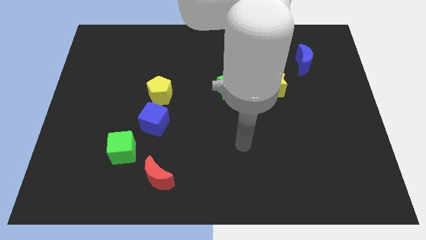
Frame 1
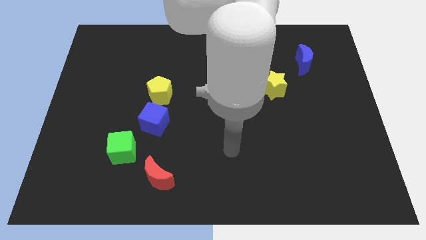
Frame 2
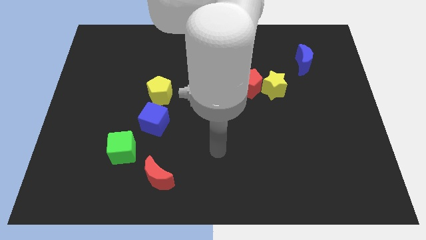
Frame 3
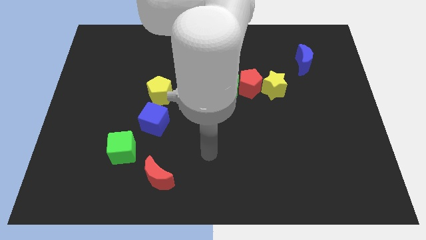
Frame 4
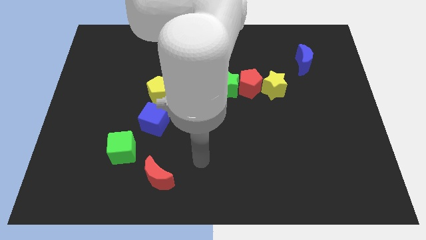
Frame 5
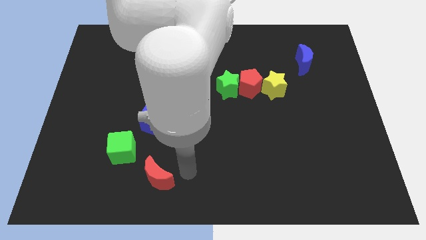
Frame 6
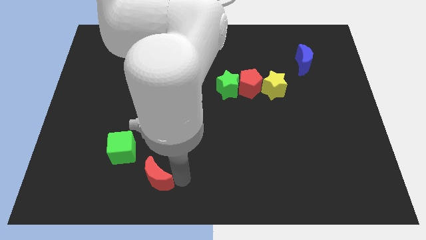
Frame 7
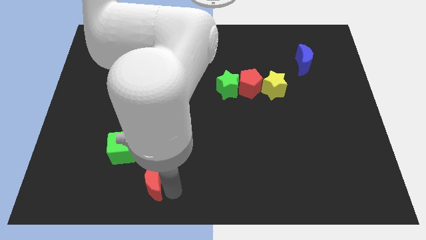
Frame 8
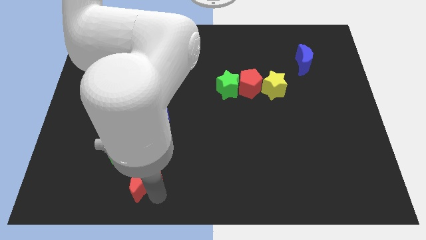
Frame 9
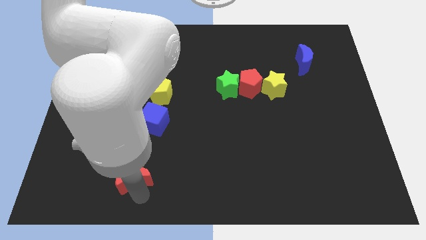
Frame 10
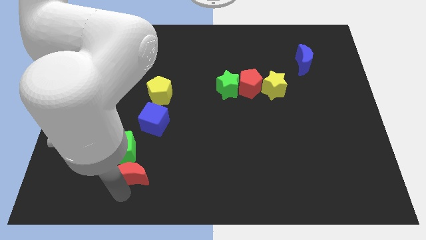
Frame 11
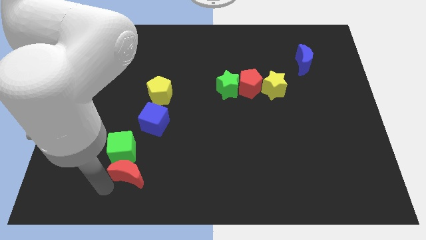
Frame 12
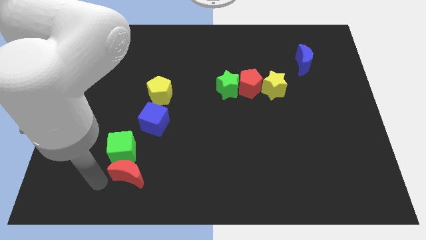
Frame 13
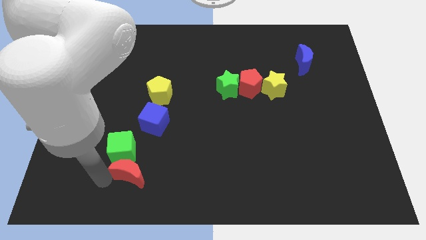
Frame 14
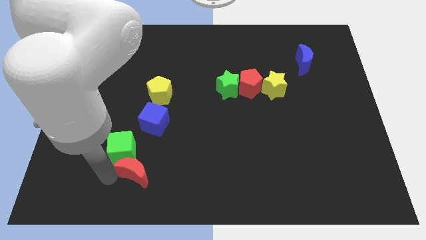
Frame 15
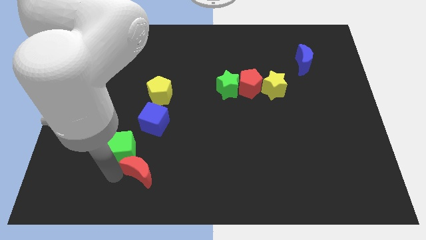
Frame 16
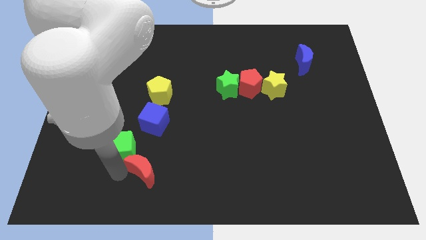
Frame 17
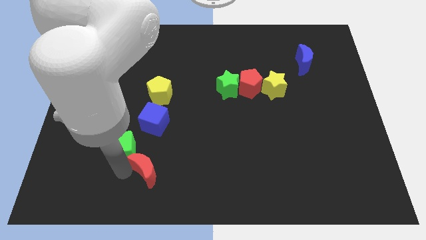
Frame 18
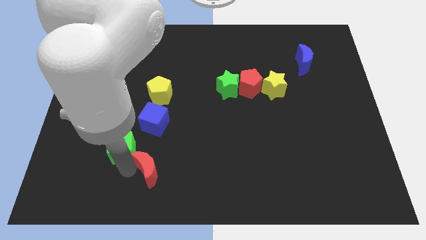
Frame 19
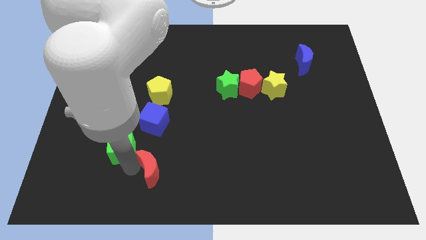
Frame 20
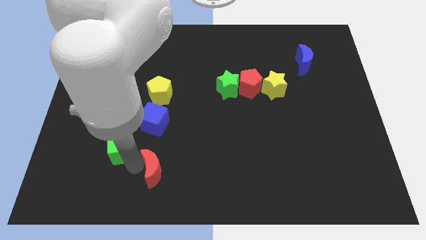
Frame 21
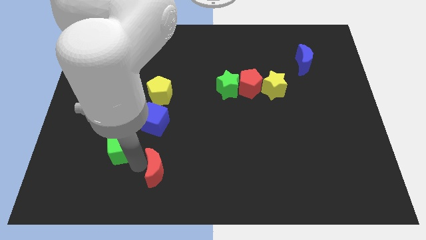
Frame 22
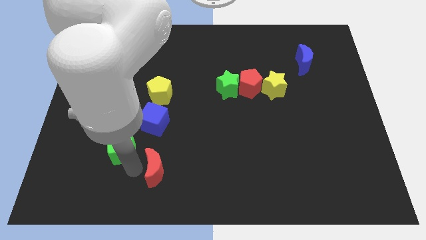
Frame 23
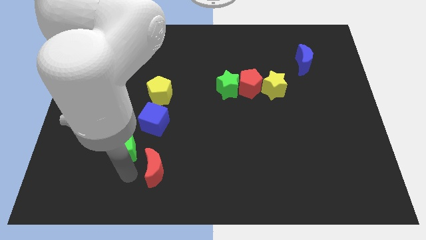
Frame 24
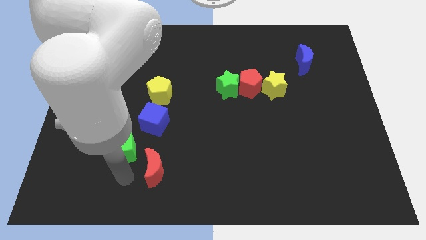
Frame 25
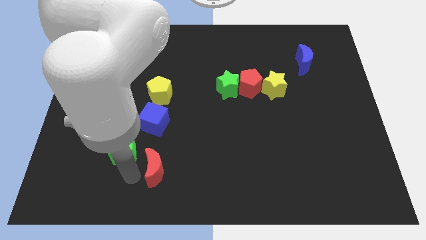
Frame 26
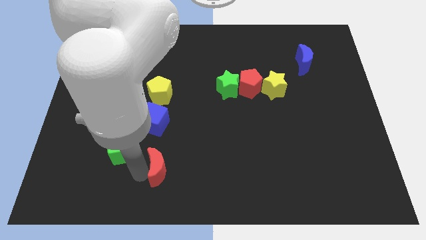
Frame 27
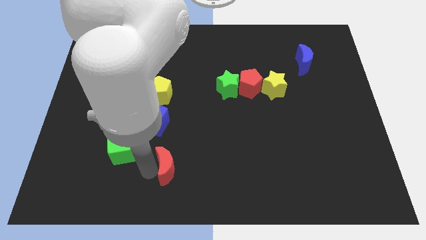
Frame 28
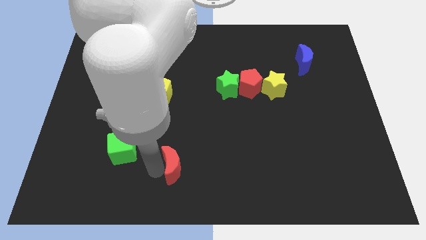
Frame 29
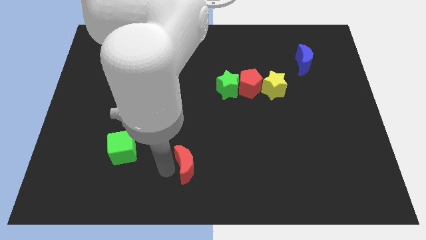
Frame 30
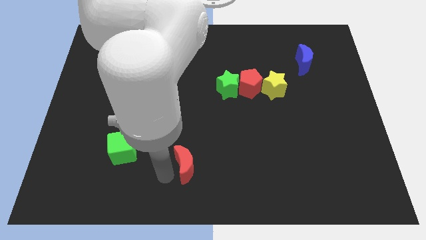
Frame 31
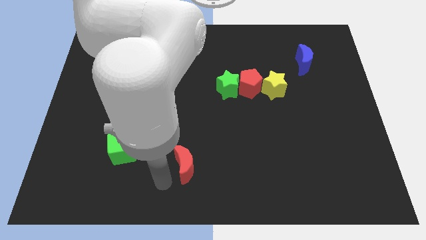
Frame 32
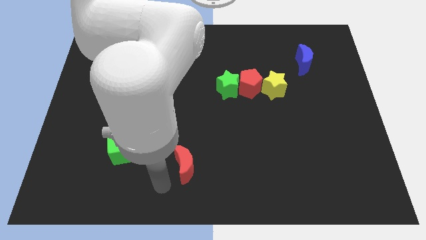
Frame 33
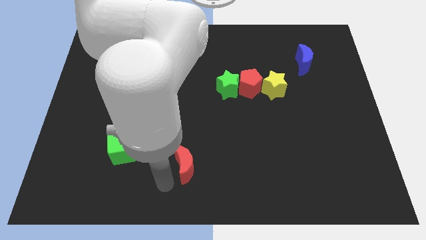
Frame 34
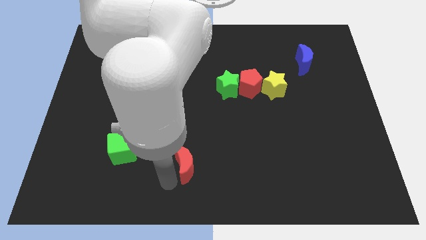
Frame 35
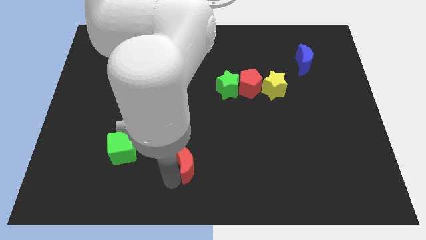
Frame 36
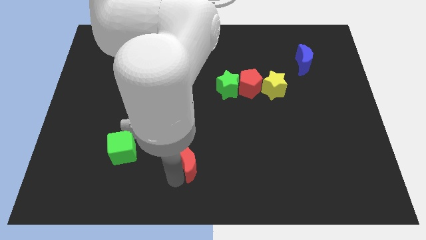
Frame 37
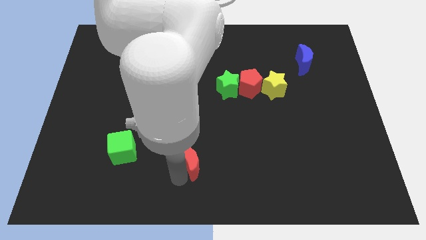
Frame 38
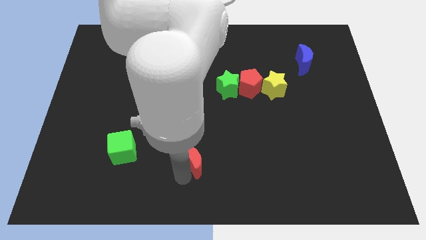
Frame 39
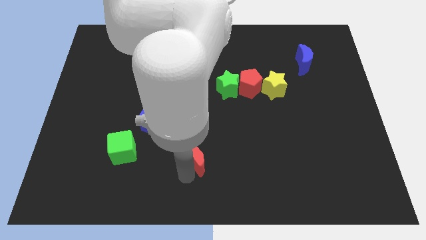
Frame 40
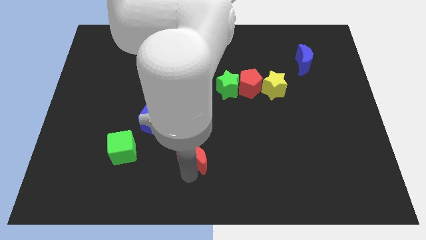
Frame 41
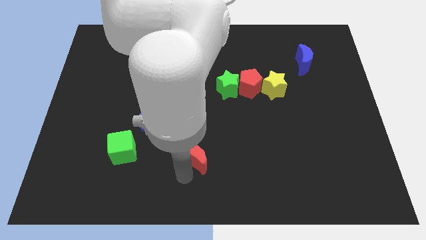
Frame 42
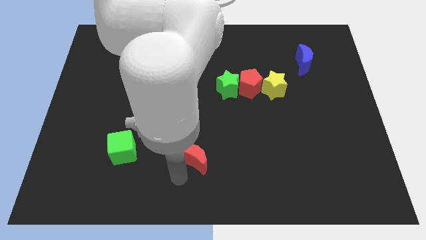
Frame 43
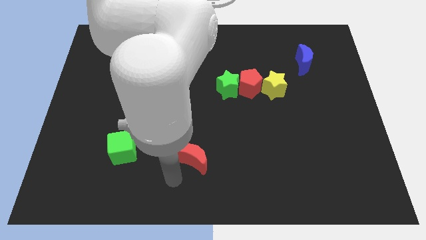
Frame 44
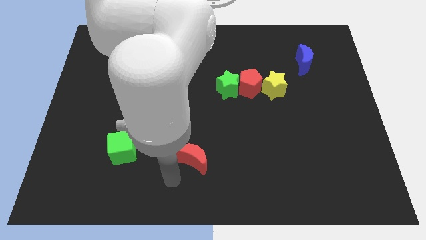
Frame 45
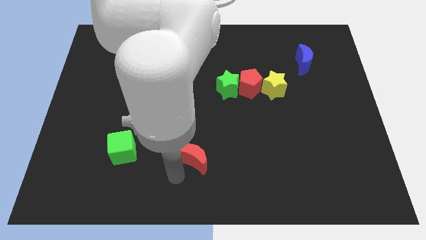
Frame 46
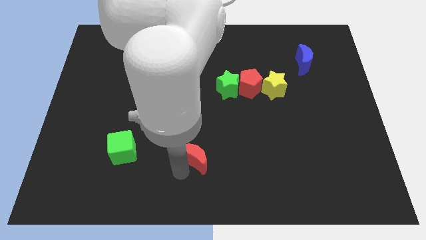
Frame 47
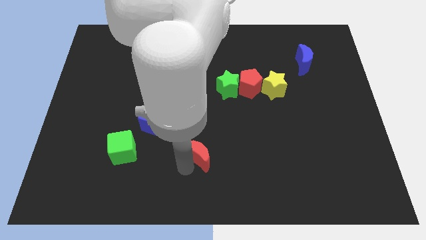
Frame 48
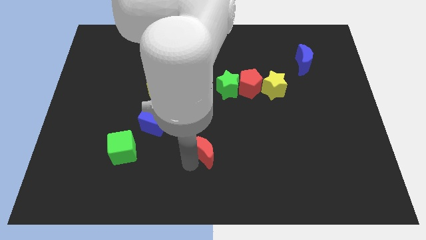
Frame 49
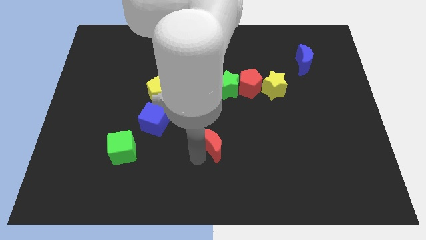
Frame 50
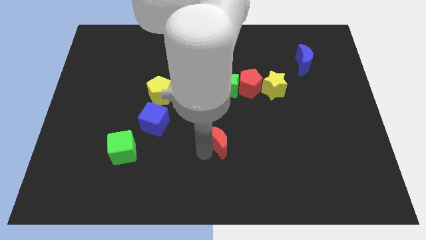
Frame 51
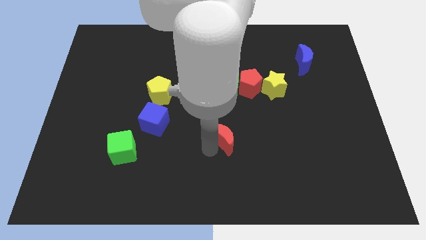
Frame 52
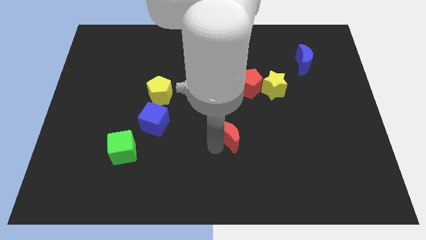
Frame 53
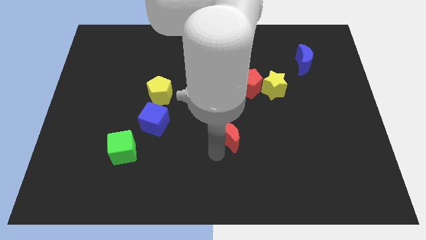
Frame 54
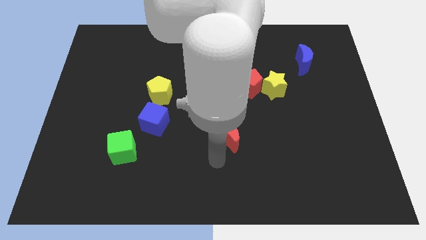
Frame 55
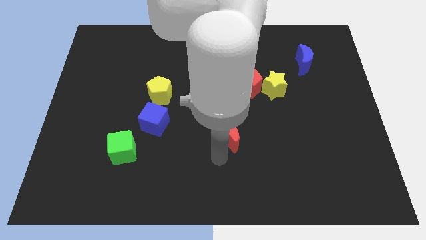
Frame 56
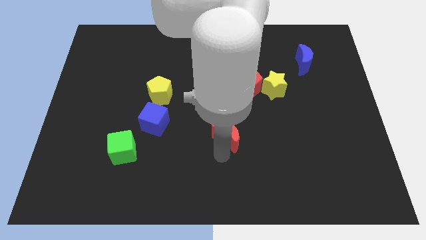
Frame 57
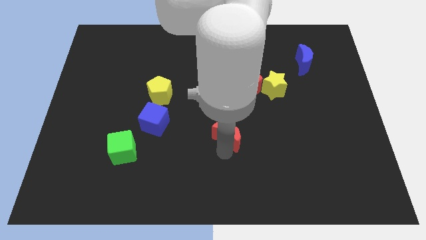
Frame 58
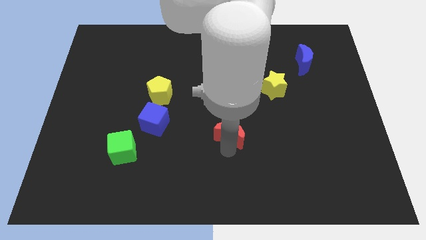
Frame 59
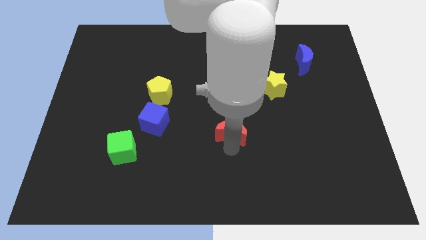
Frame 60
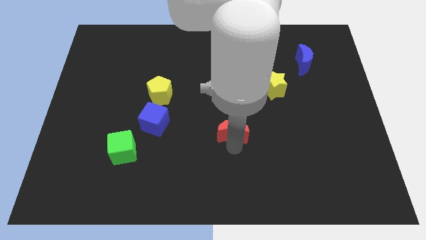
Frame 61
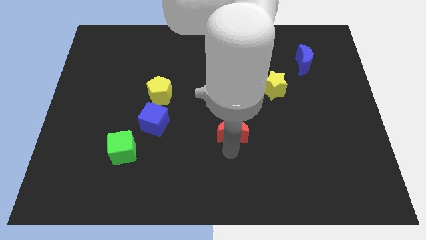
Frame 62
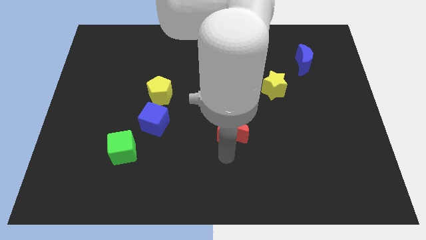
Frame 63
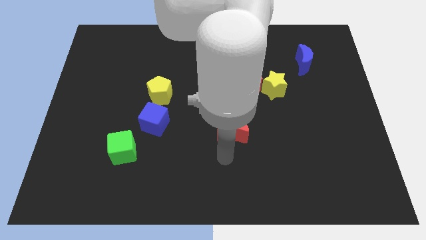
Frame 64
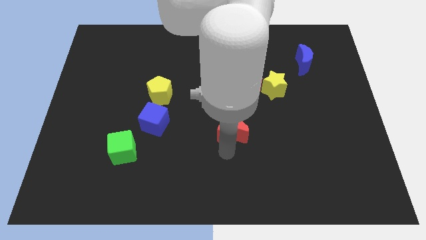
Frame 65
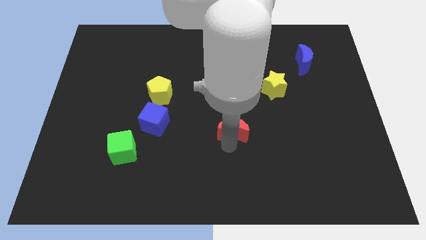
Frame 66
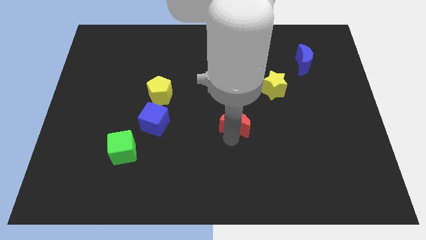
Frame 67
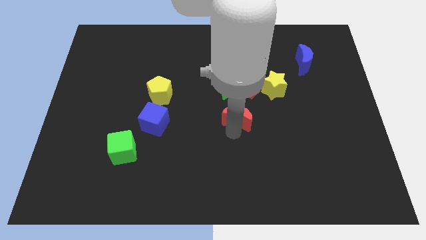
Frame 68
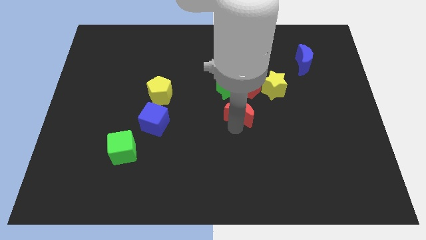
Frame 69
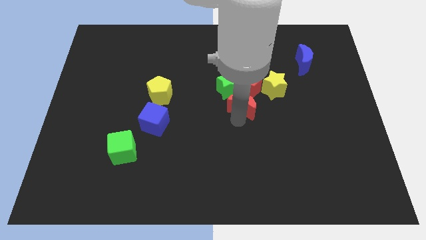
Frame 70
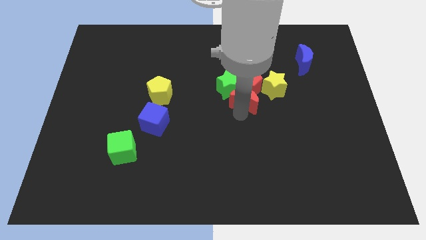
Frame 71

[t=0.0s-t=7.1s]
move the red moon to the red pentagon

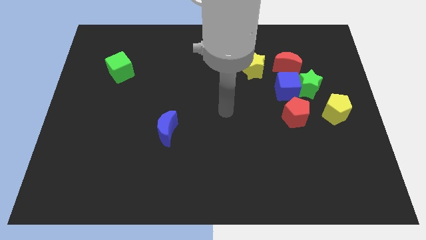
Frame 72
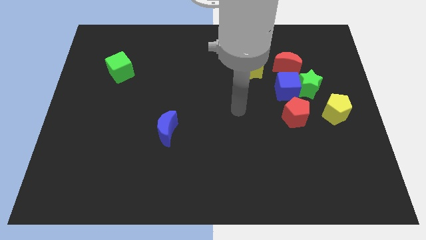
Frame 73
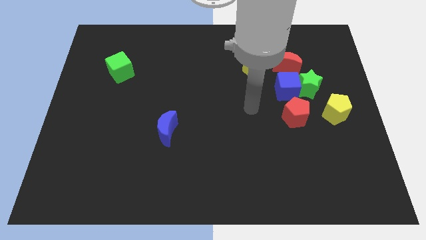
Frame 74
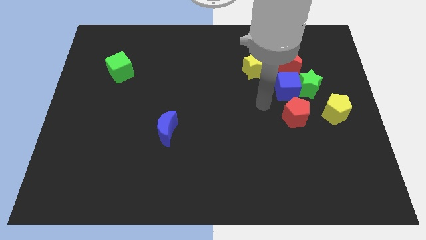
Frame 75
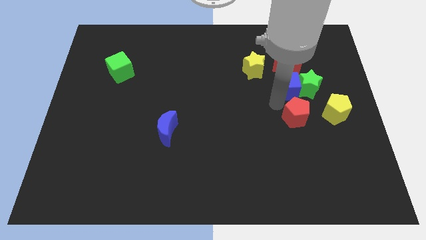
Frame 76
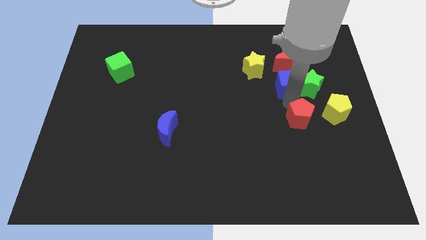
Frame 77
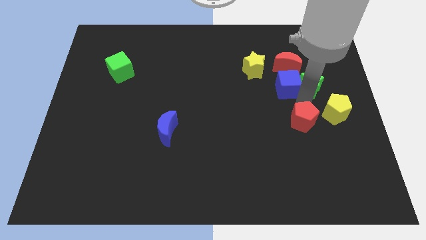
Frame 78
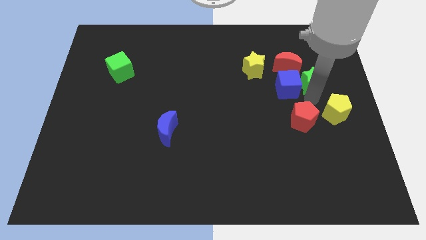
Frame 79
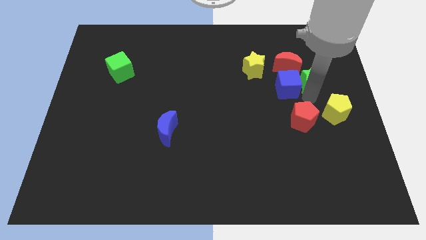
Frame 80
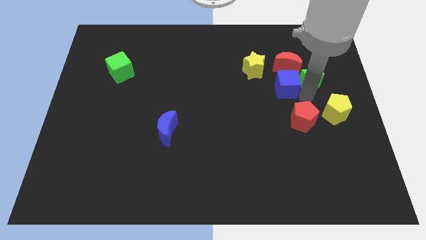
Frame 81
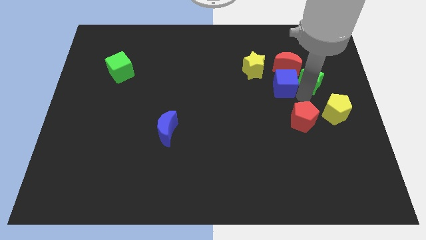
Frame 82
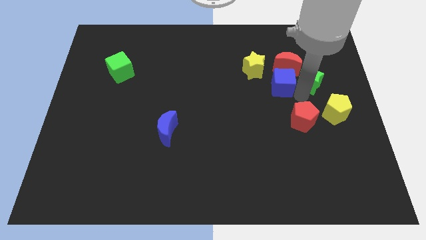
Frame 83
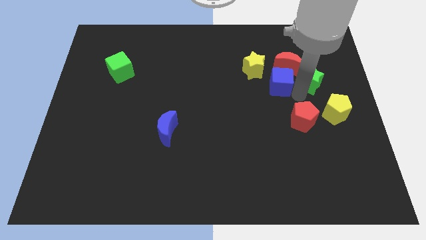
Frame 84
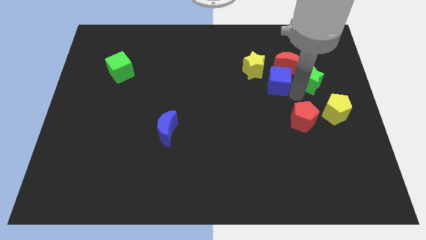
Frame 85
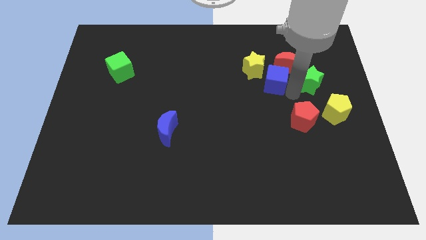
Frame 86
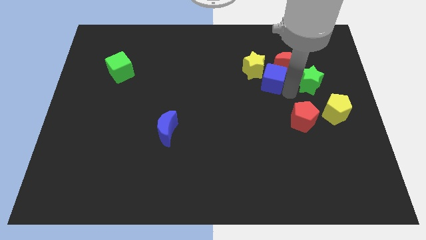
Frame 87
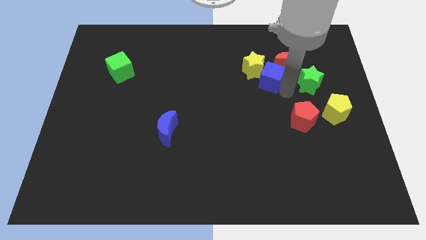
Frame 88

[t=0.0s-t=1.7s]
slide the blue cube close to the yellow star
